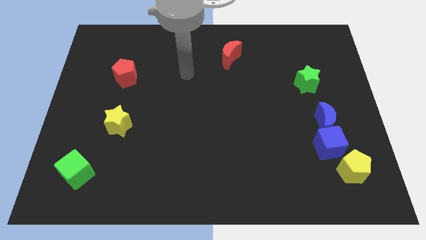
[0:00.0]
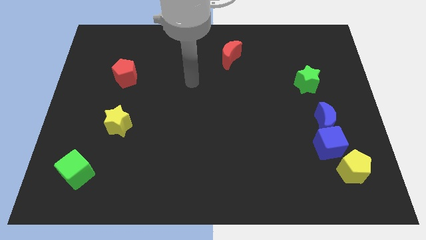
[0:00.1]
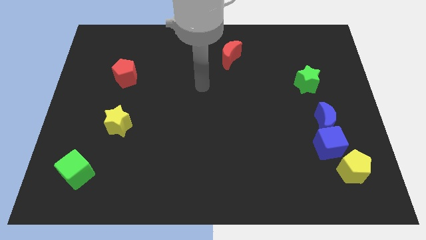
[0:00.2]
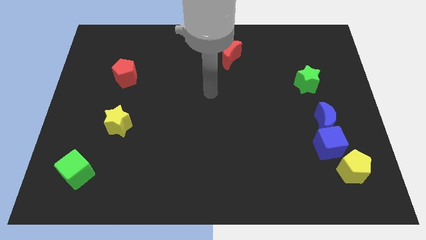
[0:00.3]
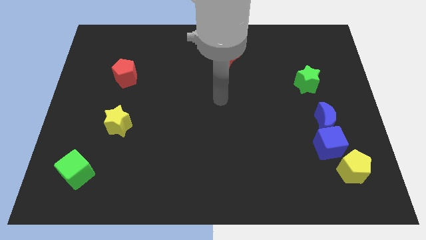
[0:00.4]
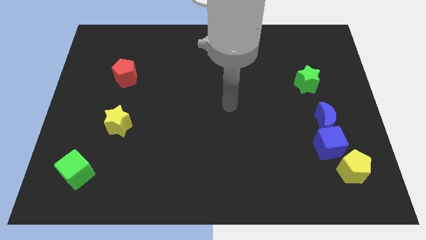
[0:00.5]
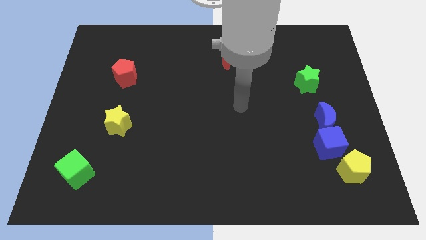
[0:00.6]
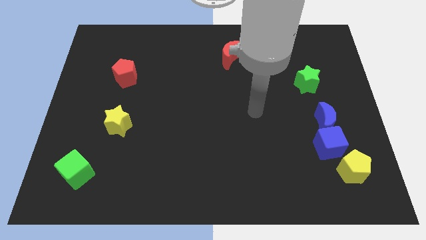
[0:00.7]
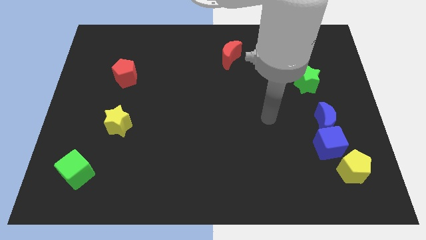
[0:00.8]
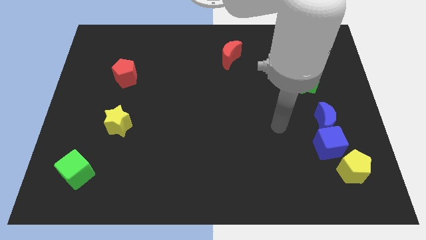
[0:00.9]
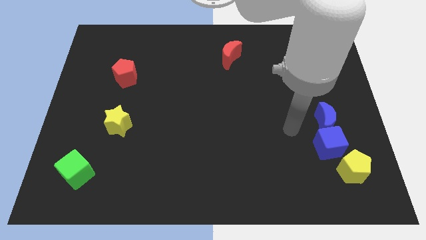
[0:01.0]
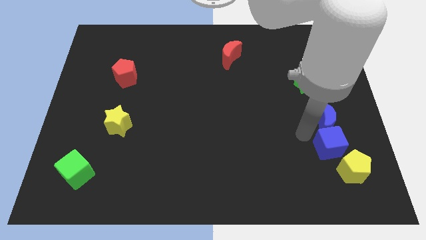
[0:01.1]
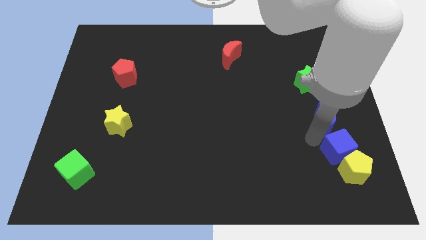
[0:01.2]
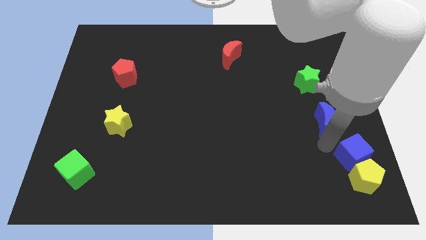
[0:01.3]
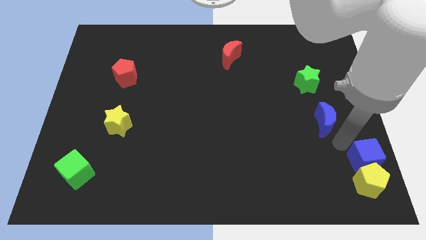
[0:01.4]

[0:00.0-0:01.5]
separate the blue moon from the blue cube

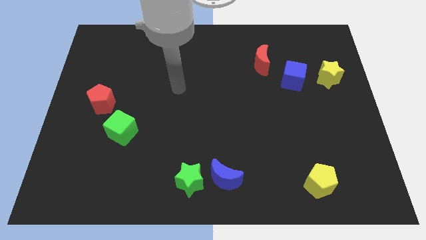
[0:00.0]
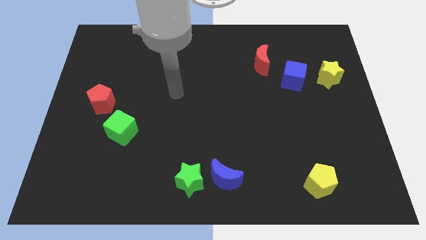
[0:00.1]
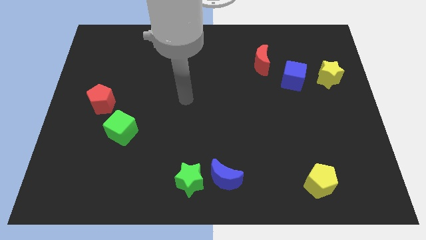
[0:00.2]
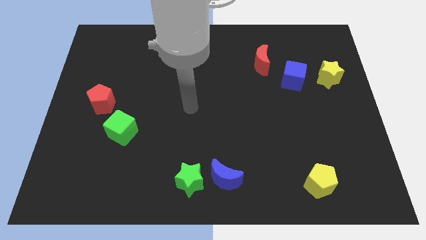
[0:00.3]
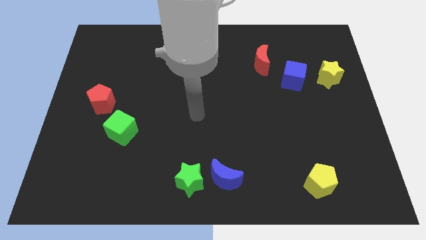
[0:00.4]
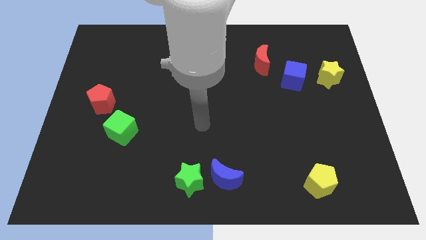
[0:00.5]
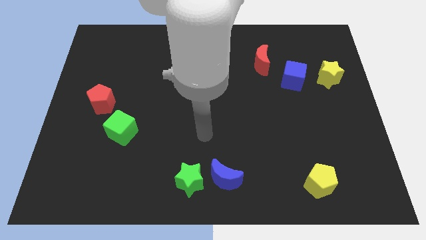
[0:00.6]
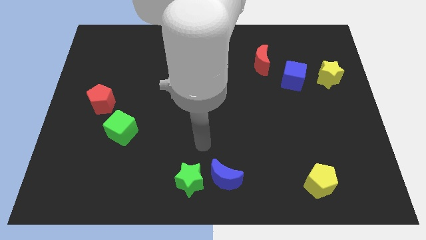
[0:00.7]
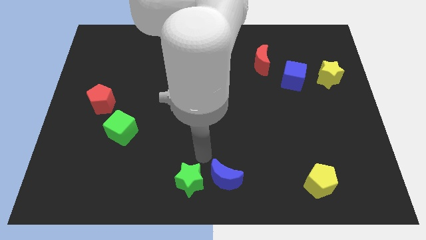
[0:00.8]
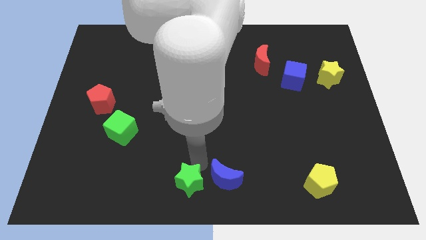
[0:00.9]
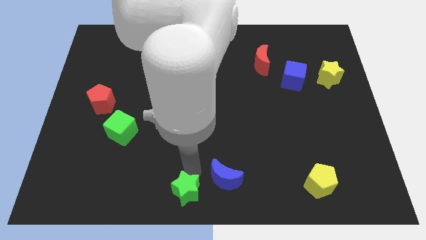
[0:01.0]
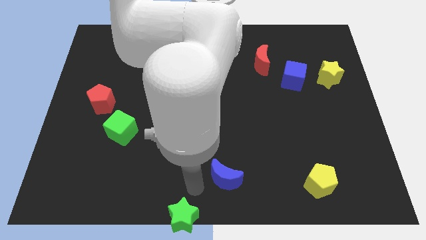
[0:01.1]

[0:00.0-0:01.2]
move the blue moon away from the green star

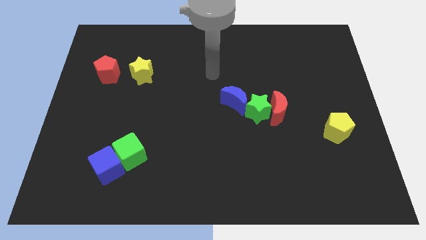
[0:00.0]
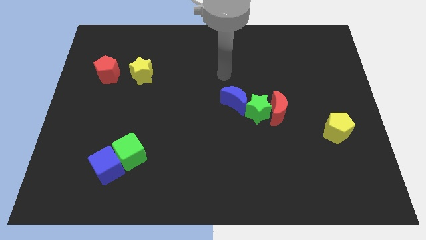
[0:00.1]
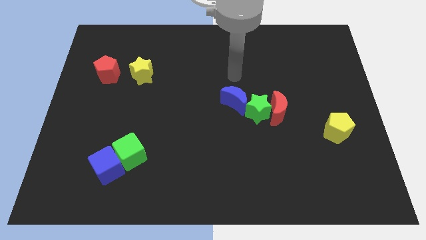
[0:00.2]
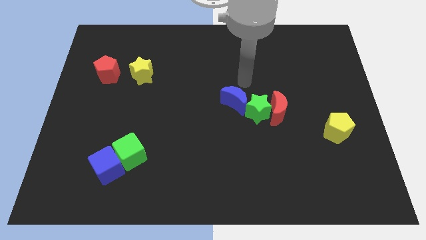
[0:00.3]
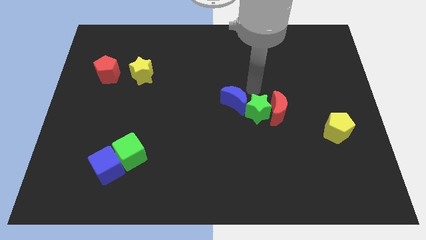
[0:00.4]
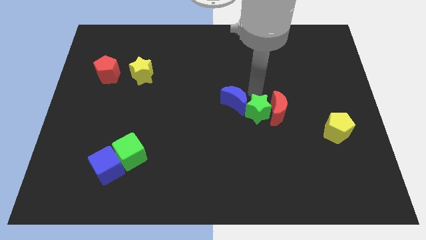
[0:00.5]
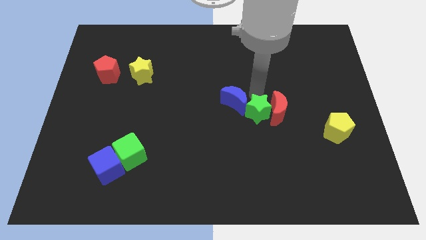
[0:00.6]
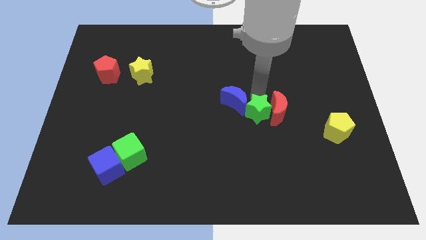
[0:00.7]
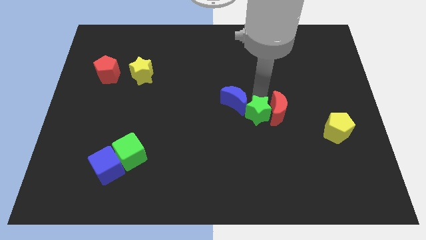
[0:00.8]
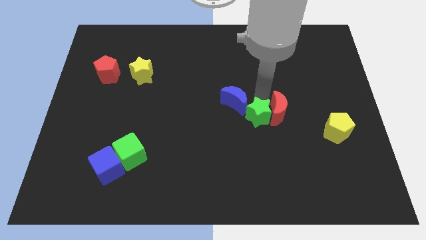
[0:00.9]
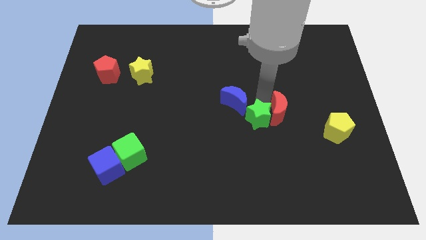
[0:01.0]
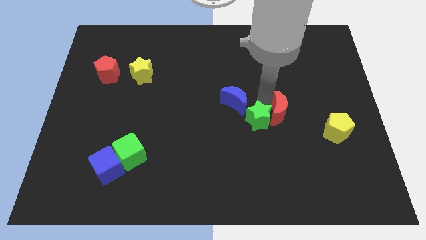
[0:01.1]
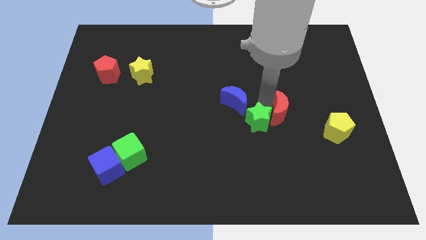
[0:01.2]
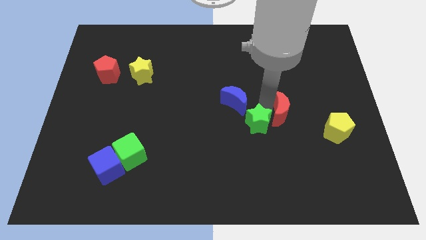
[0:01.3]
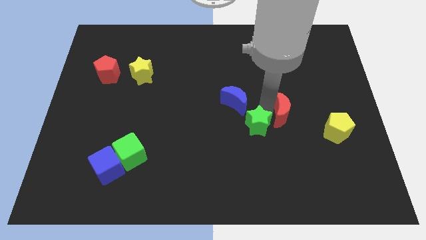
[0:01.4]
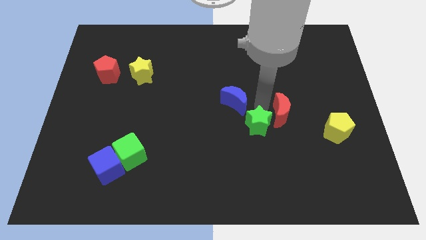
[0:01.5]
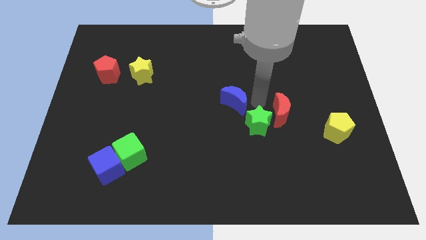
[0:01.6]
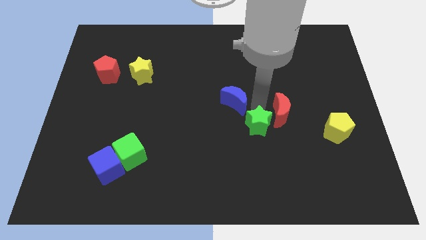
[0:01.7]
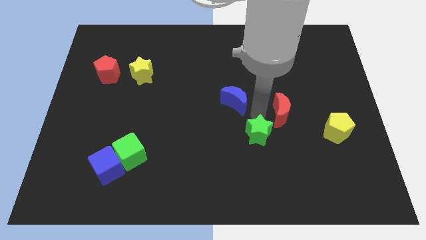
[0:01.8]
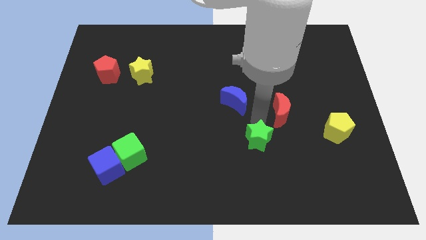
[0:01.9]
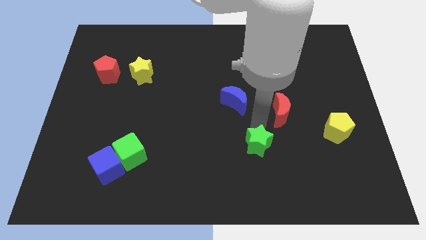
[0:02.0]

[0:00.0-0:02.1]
pull the green star apart from the red moon and blue moon

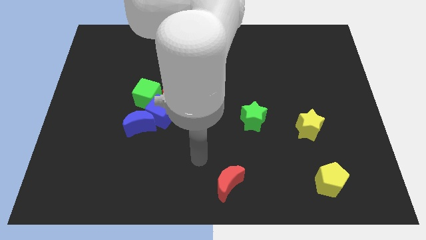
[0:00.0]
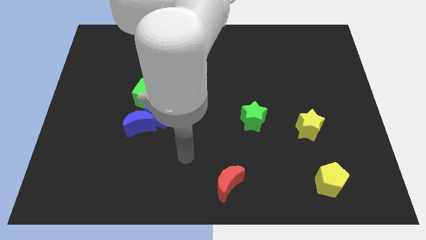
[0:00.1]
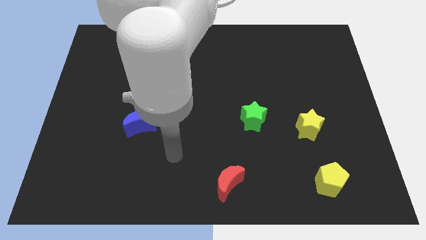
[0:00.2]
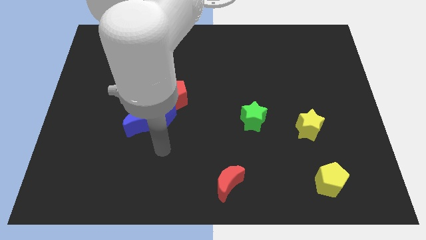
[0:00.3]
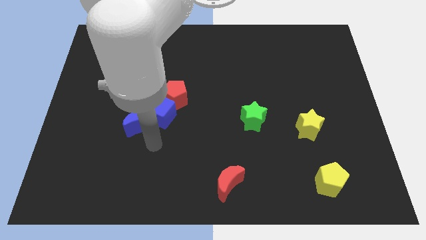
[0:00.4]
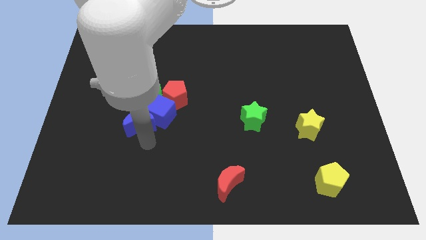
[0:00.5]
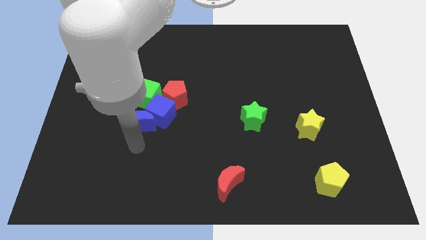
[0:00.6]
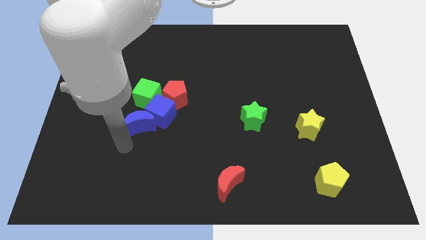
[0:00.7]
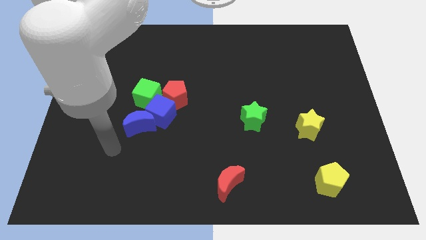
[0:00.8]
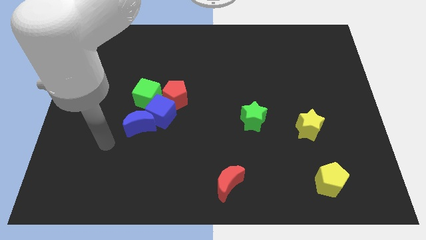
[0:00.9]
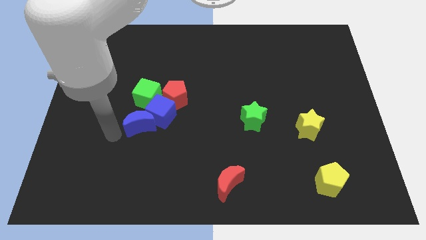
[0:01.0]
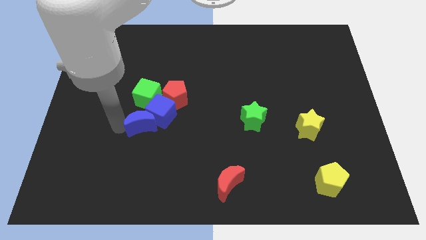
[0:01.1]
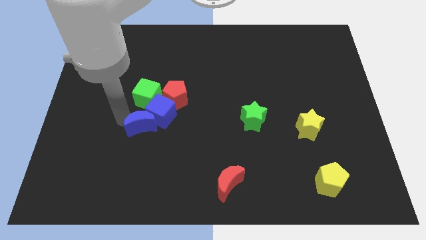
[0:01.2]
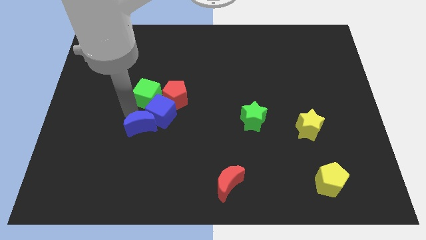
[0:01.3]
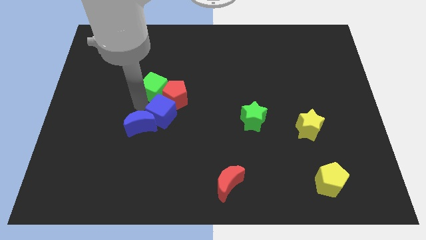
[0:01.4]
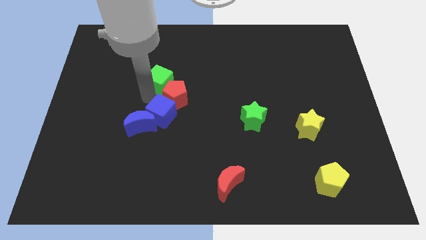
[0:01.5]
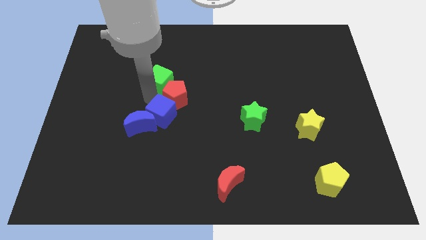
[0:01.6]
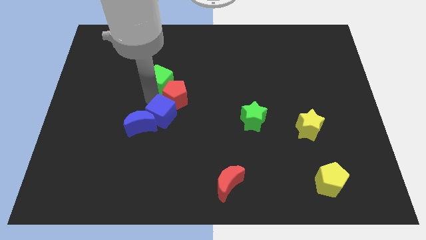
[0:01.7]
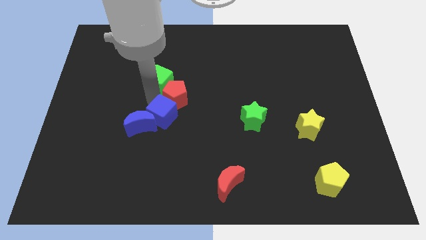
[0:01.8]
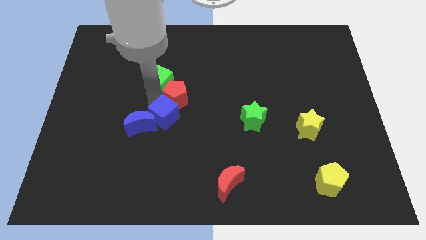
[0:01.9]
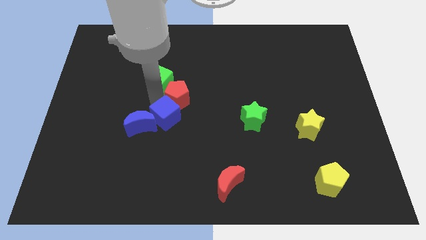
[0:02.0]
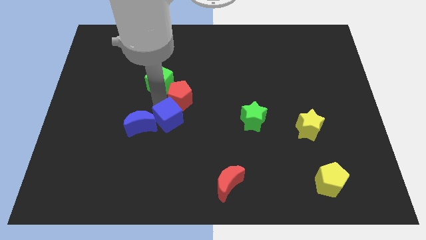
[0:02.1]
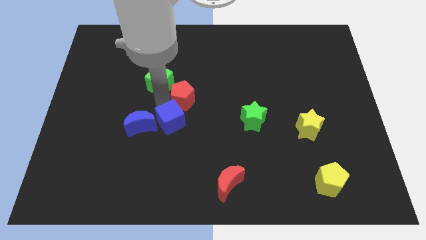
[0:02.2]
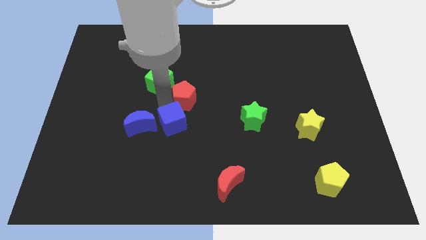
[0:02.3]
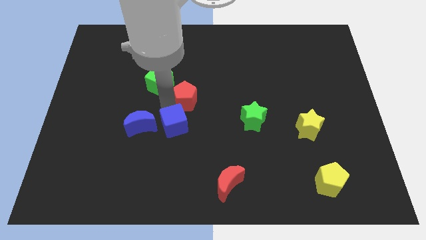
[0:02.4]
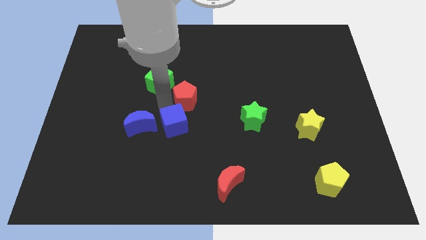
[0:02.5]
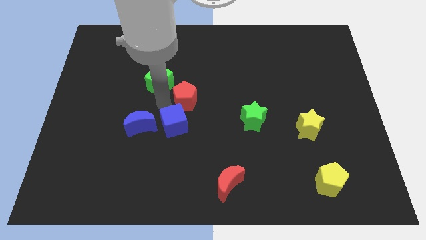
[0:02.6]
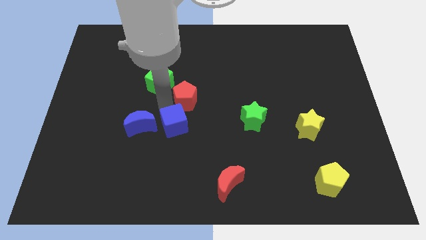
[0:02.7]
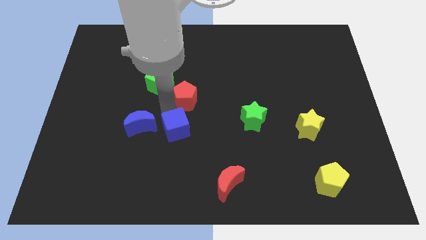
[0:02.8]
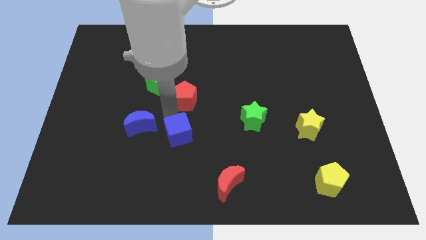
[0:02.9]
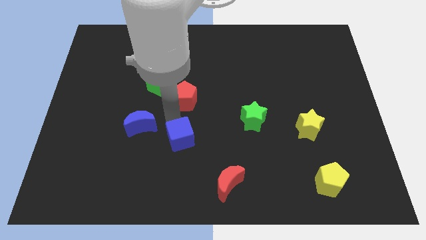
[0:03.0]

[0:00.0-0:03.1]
separate the blue cube from the blue moon, red pentagon, and green cube

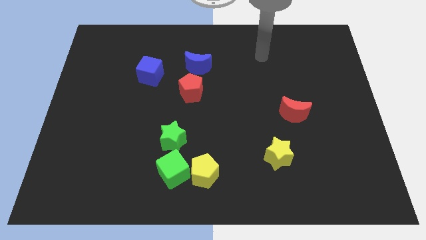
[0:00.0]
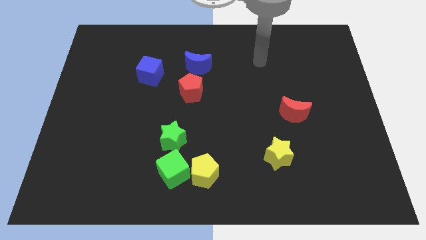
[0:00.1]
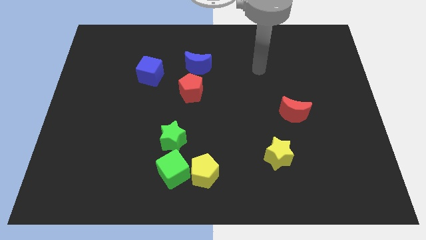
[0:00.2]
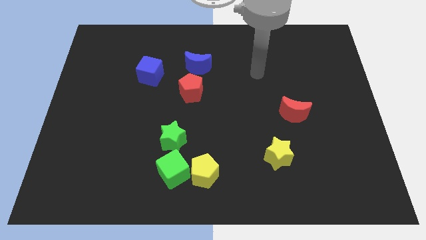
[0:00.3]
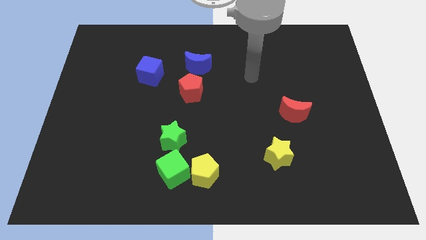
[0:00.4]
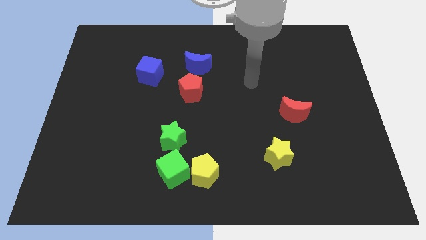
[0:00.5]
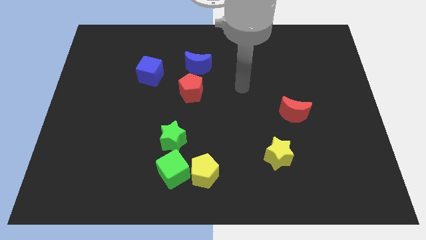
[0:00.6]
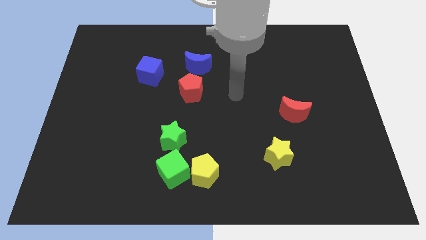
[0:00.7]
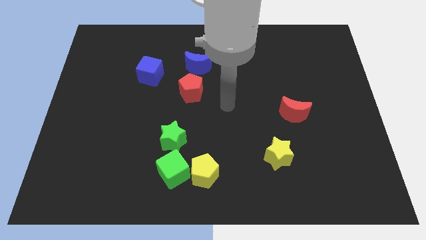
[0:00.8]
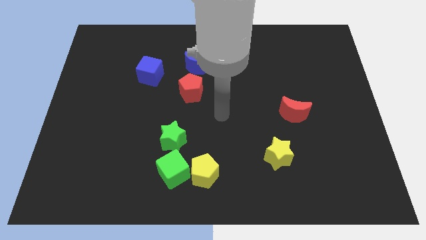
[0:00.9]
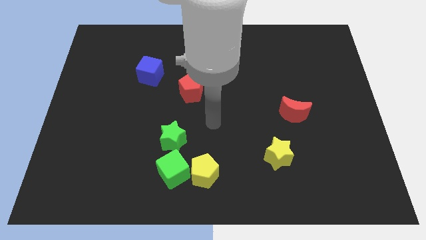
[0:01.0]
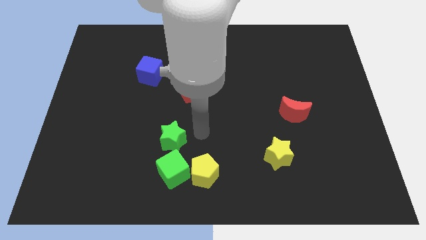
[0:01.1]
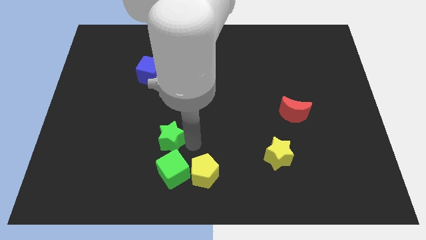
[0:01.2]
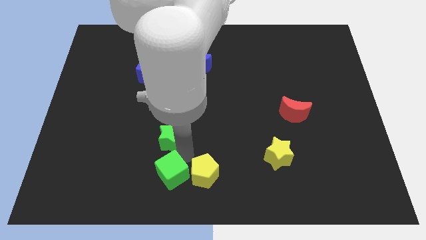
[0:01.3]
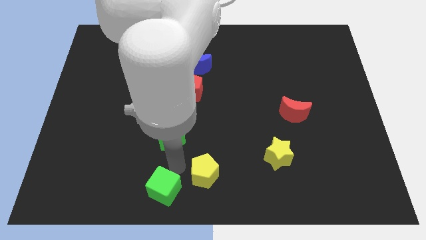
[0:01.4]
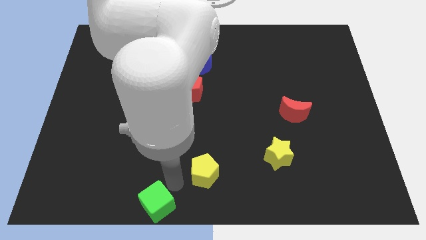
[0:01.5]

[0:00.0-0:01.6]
pull the yellow pentagon apart from the green cube
